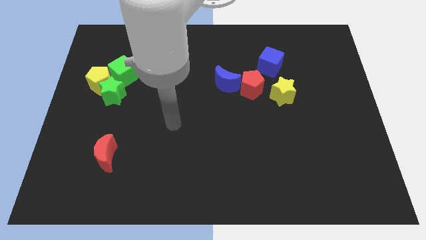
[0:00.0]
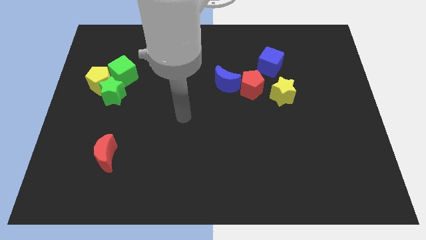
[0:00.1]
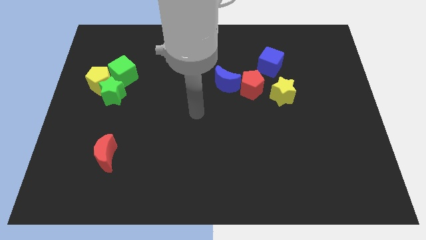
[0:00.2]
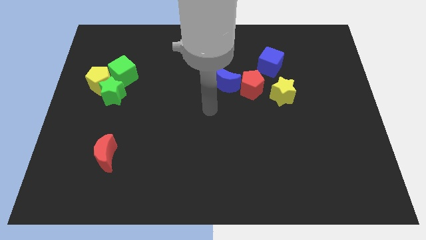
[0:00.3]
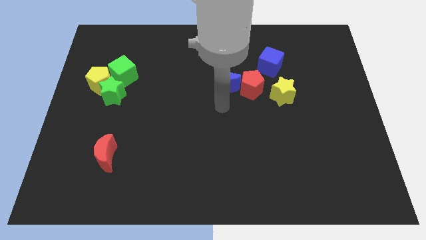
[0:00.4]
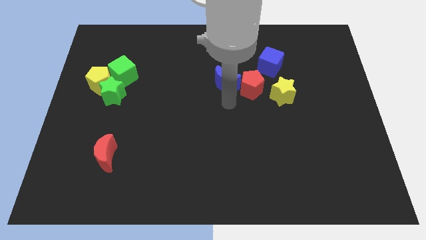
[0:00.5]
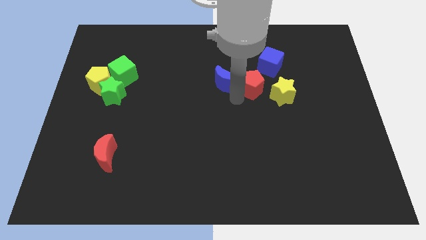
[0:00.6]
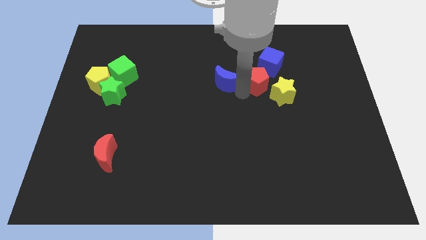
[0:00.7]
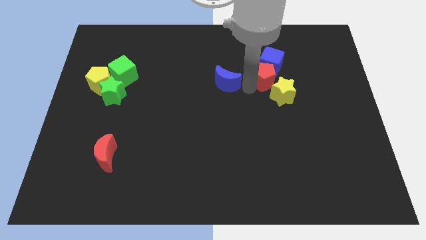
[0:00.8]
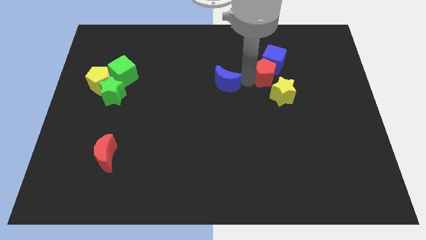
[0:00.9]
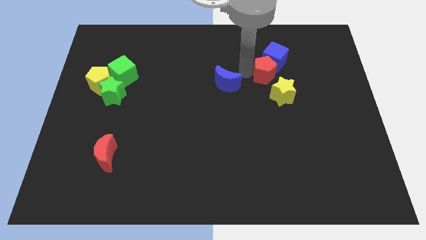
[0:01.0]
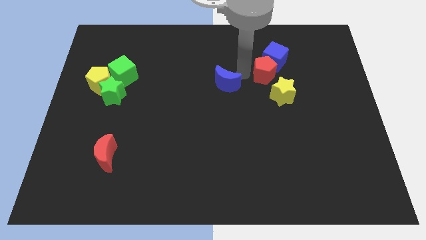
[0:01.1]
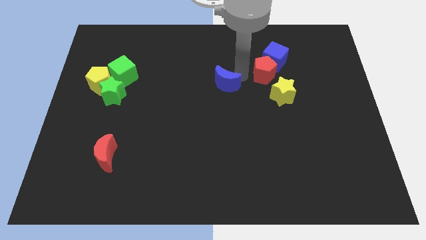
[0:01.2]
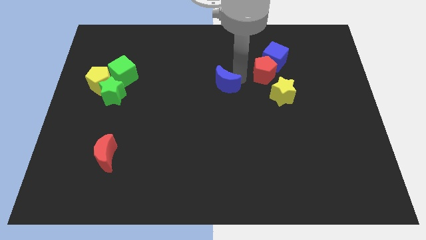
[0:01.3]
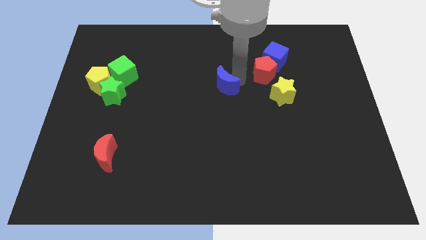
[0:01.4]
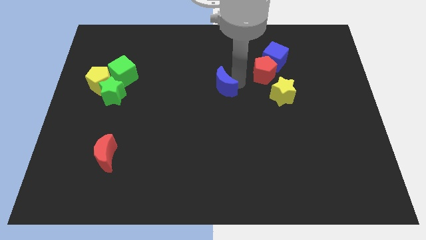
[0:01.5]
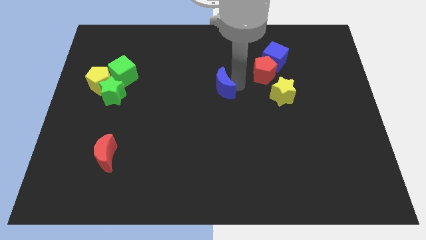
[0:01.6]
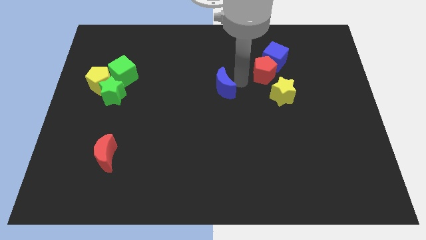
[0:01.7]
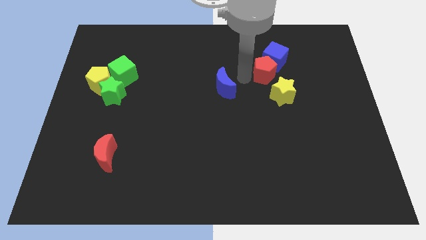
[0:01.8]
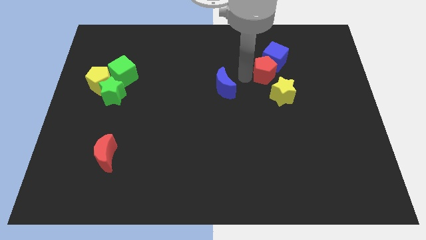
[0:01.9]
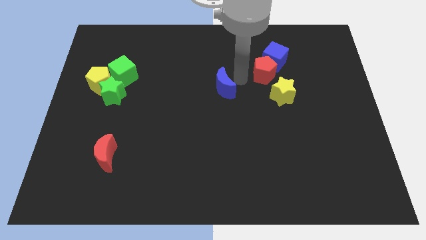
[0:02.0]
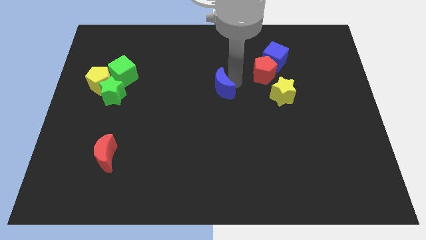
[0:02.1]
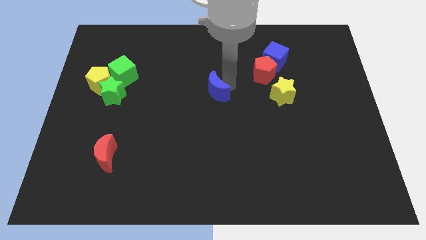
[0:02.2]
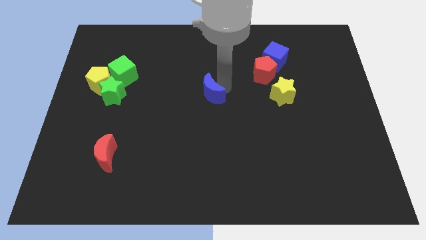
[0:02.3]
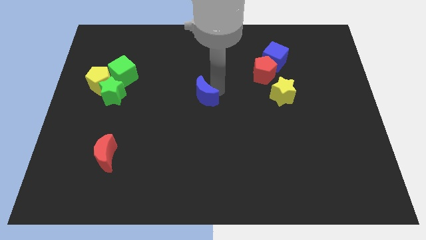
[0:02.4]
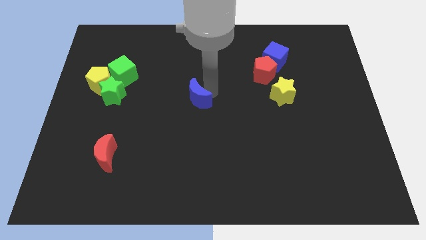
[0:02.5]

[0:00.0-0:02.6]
push the blue moon downwards and to the left a little bit

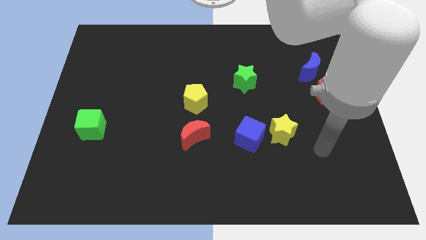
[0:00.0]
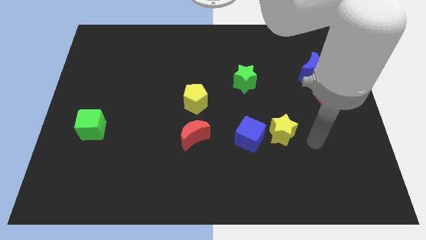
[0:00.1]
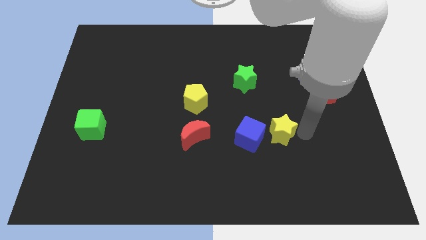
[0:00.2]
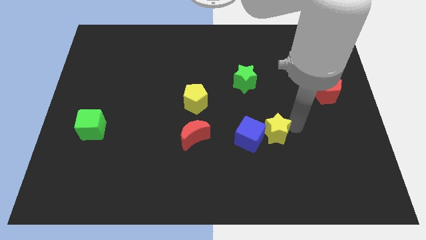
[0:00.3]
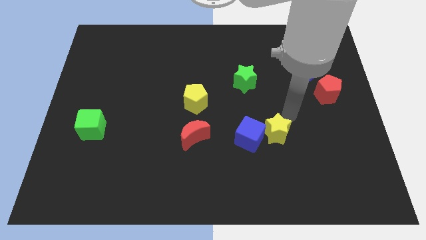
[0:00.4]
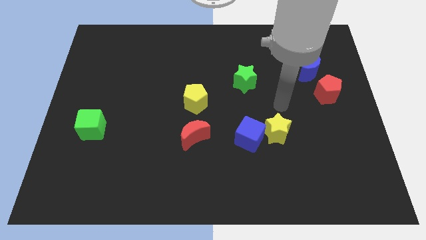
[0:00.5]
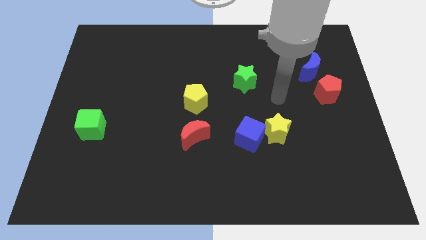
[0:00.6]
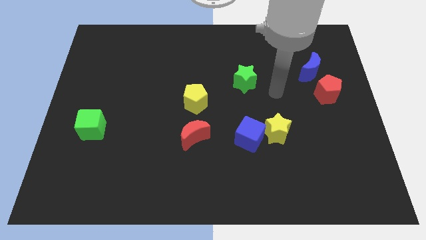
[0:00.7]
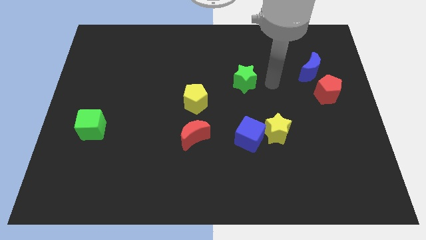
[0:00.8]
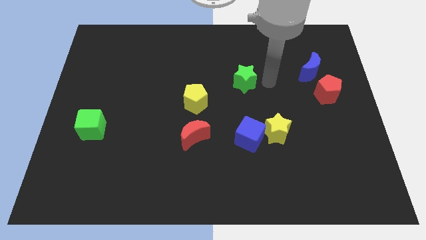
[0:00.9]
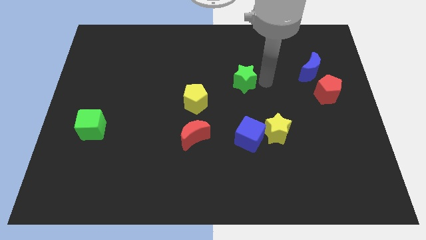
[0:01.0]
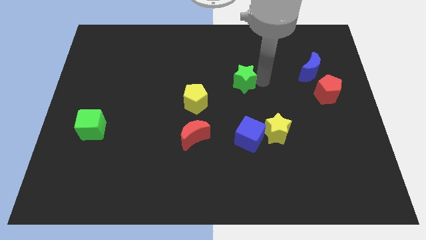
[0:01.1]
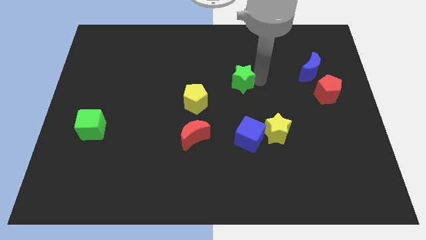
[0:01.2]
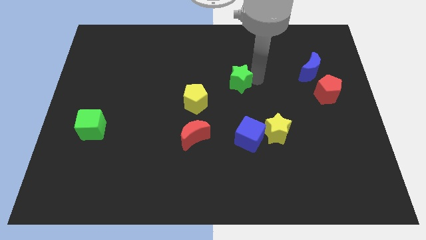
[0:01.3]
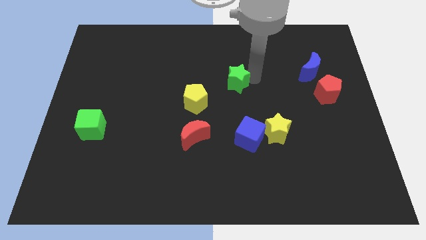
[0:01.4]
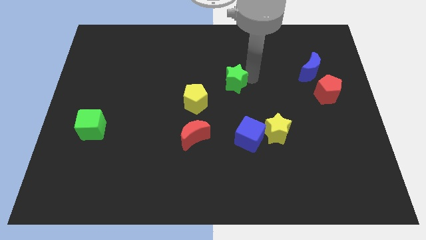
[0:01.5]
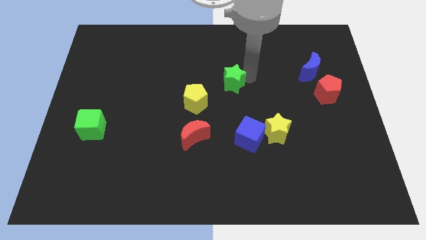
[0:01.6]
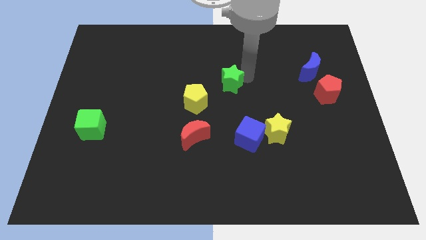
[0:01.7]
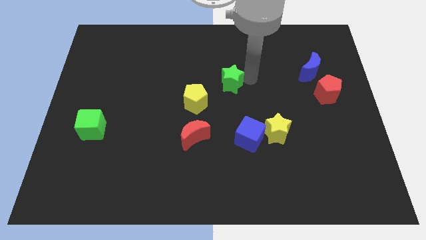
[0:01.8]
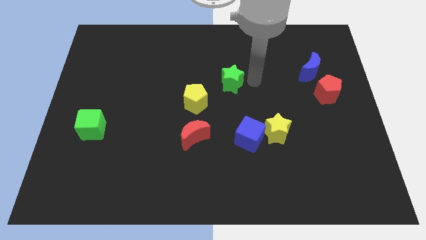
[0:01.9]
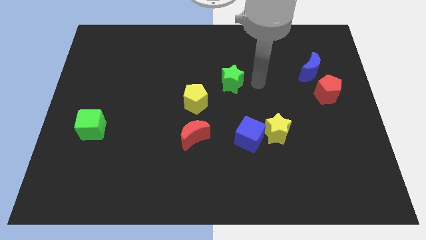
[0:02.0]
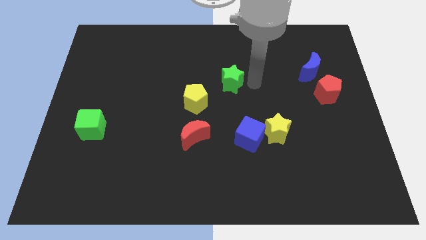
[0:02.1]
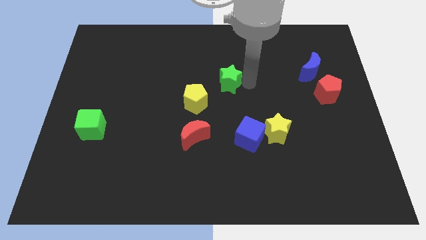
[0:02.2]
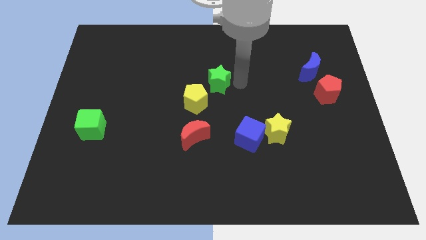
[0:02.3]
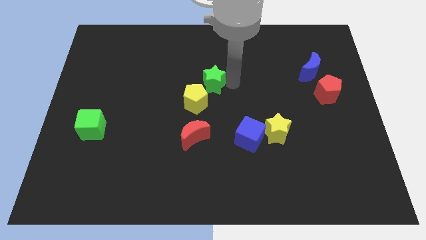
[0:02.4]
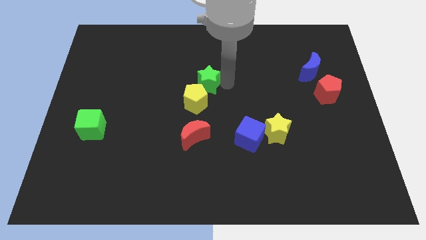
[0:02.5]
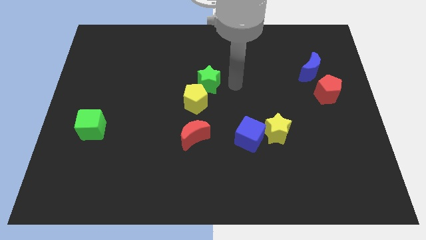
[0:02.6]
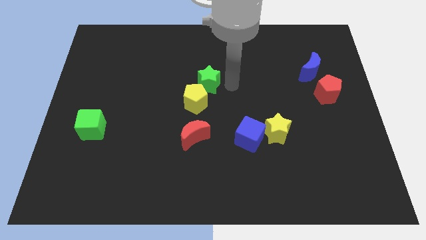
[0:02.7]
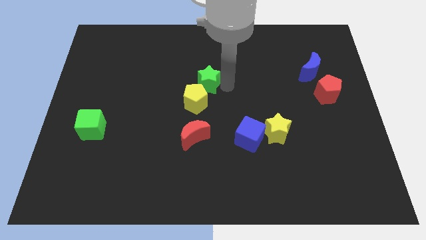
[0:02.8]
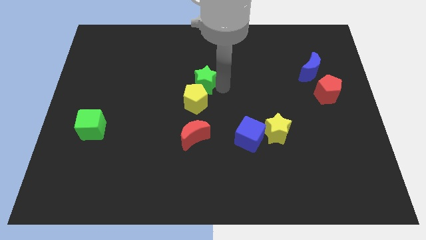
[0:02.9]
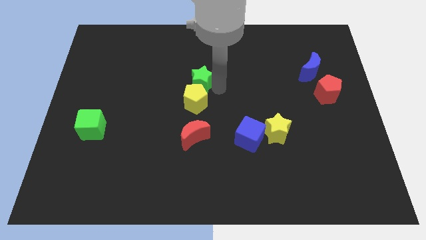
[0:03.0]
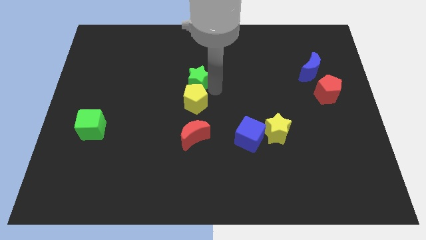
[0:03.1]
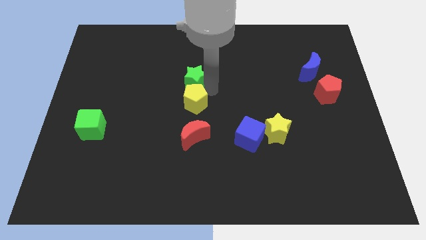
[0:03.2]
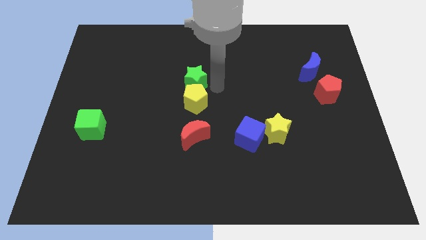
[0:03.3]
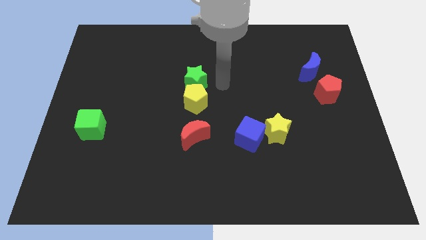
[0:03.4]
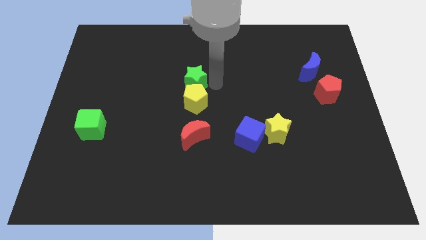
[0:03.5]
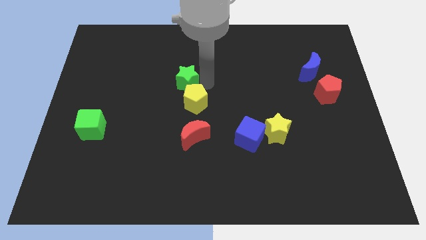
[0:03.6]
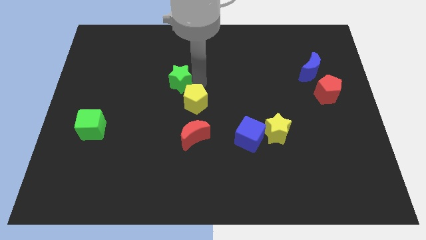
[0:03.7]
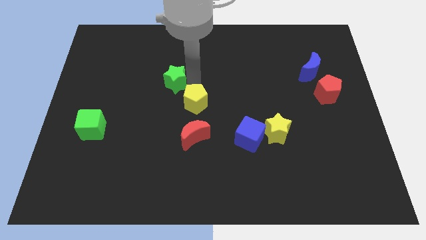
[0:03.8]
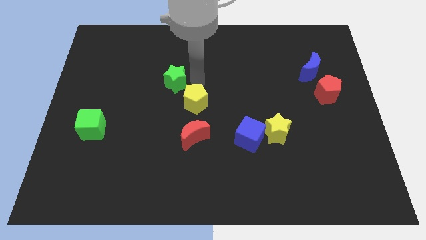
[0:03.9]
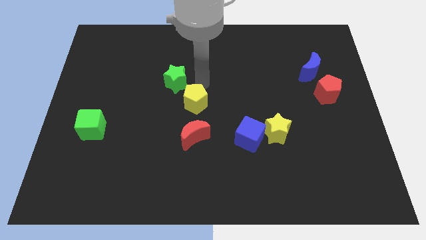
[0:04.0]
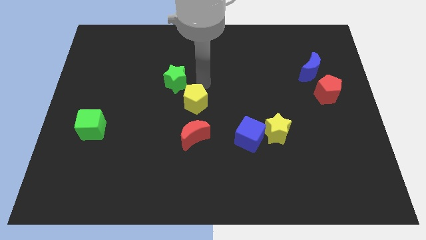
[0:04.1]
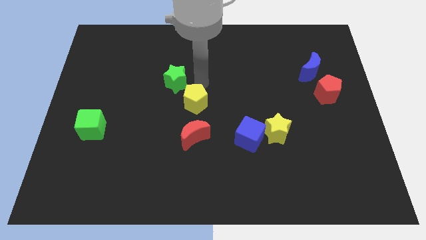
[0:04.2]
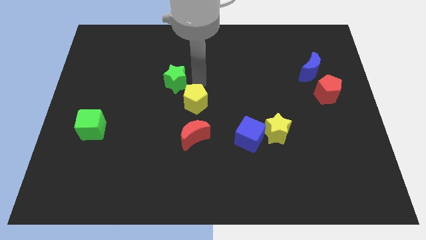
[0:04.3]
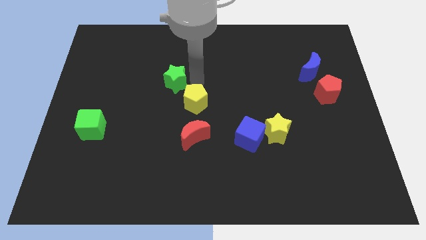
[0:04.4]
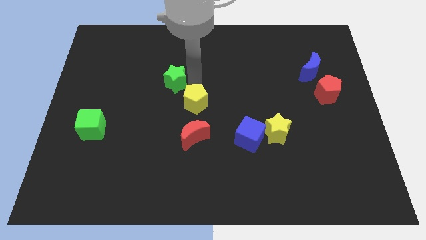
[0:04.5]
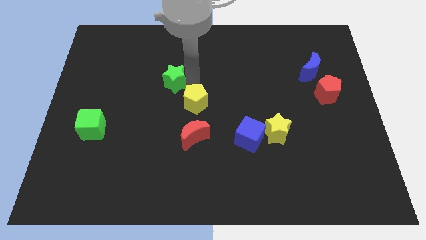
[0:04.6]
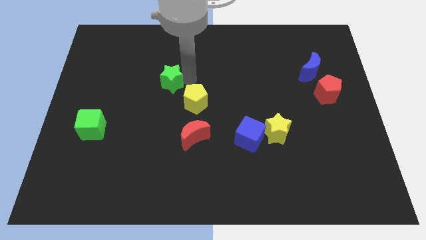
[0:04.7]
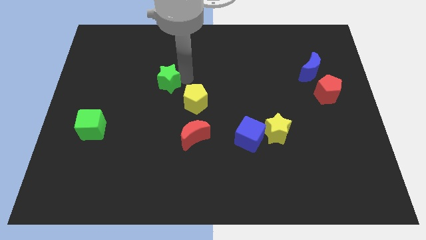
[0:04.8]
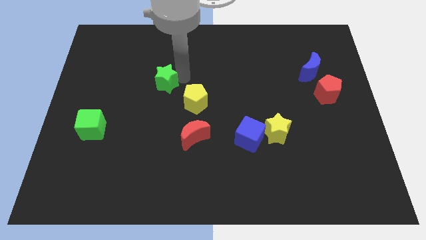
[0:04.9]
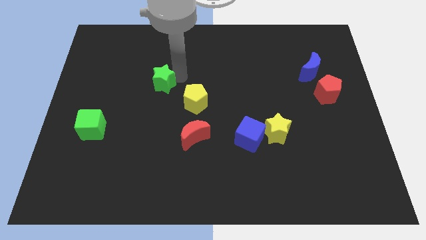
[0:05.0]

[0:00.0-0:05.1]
push the green star to the left

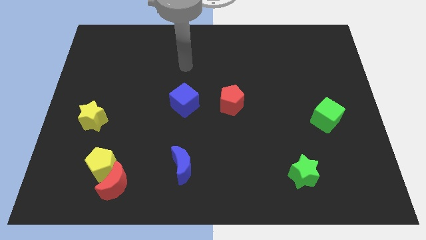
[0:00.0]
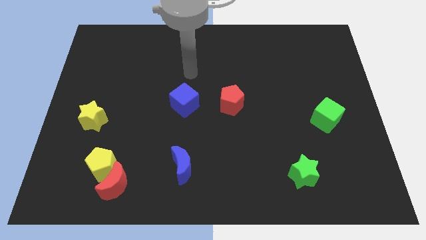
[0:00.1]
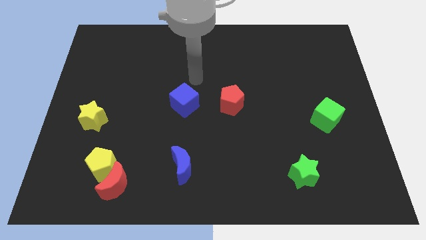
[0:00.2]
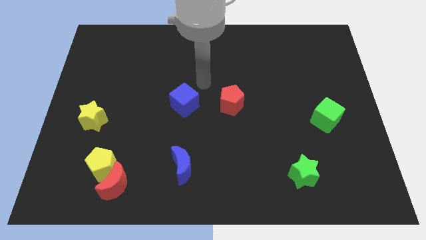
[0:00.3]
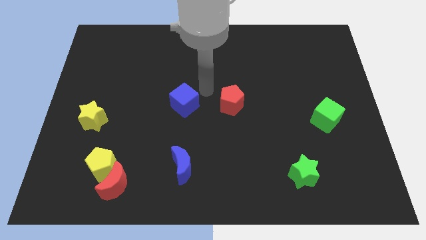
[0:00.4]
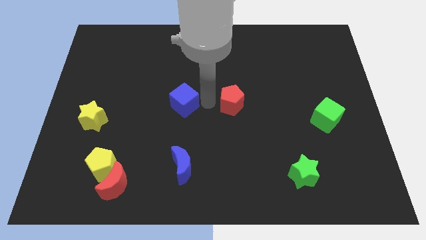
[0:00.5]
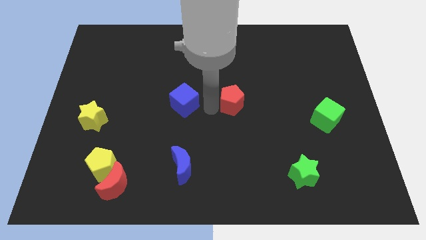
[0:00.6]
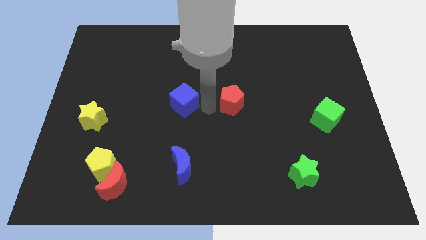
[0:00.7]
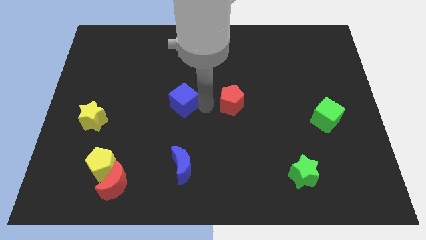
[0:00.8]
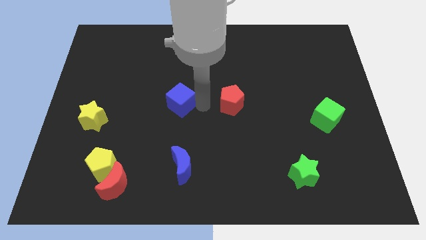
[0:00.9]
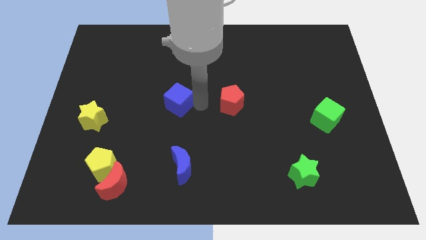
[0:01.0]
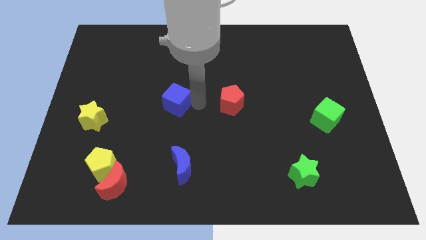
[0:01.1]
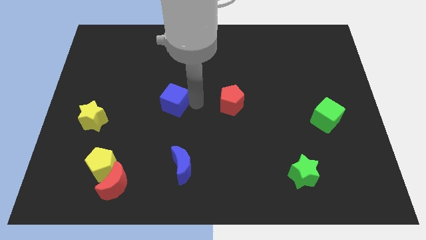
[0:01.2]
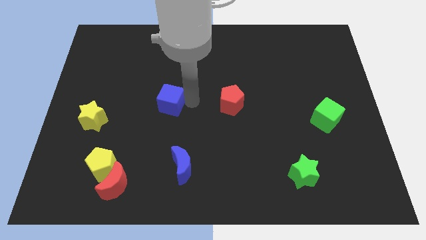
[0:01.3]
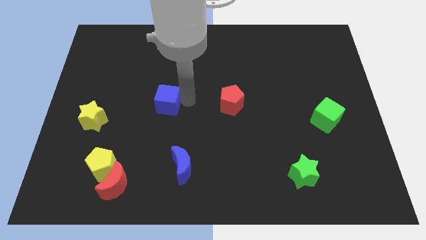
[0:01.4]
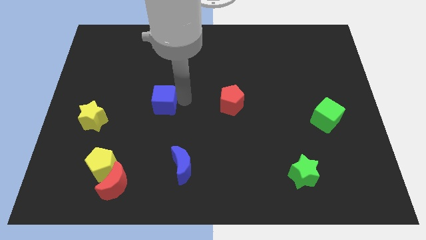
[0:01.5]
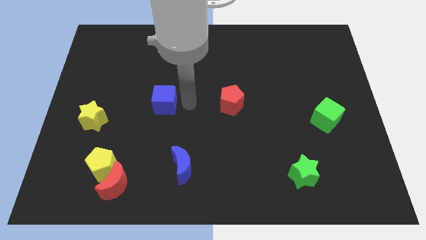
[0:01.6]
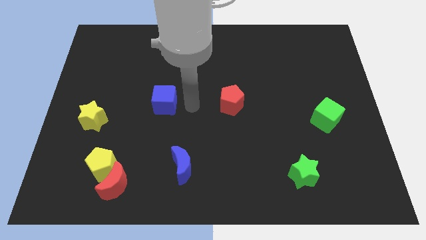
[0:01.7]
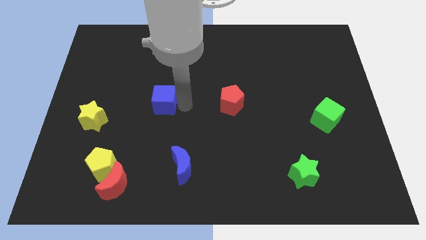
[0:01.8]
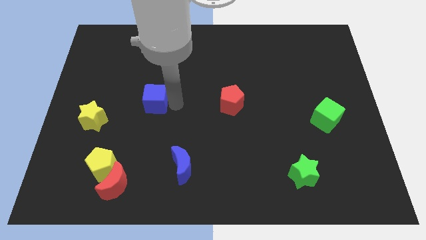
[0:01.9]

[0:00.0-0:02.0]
slightly slide the blue cube left
